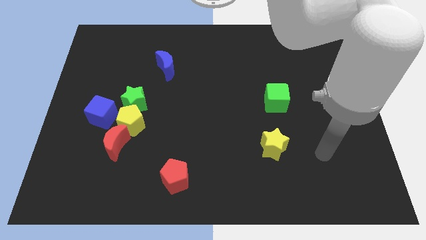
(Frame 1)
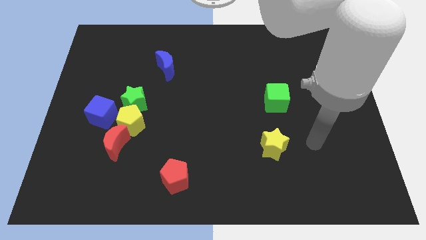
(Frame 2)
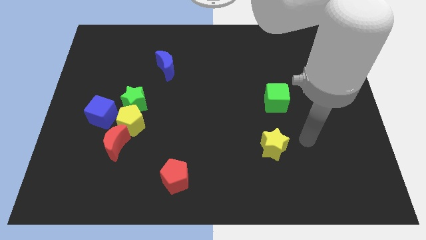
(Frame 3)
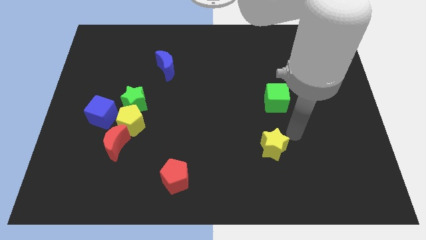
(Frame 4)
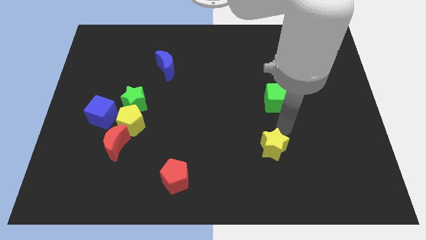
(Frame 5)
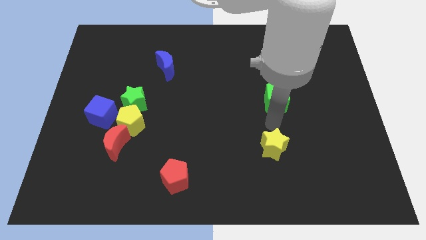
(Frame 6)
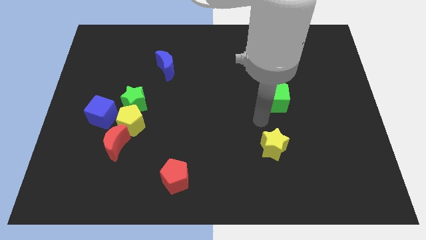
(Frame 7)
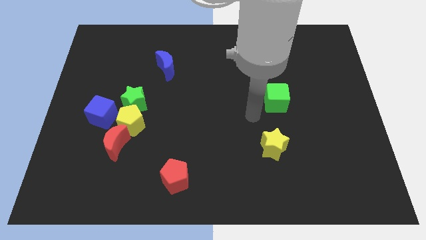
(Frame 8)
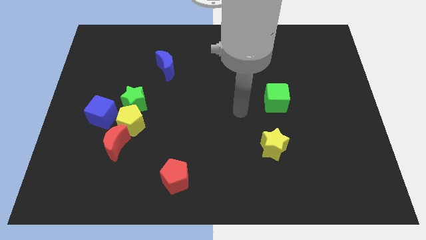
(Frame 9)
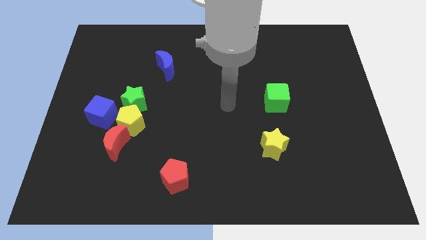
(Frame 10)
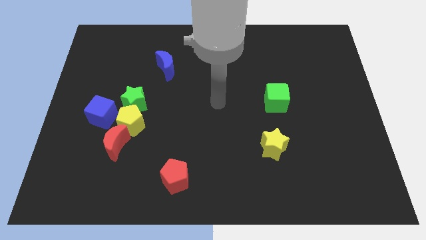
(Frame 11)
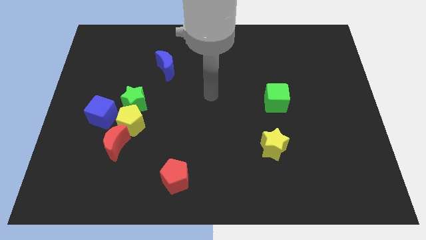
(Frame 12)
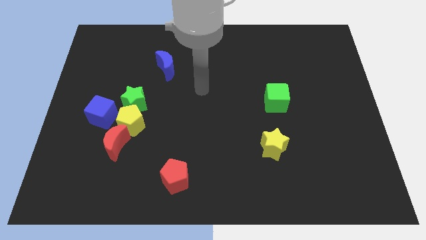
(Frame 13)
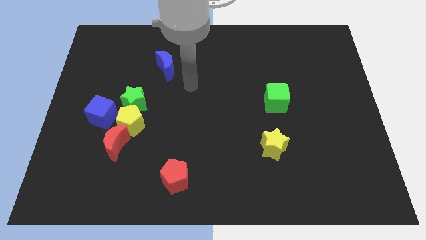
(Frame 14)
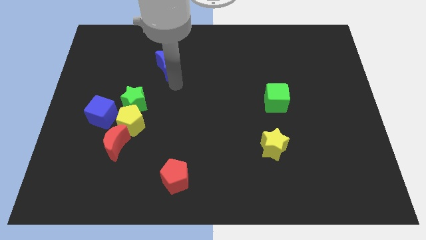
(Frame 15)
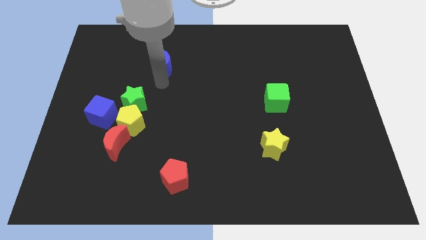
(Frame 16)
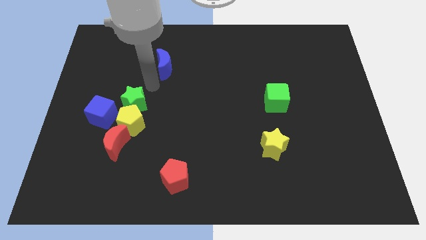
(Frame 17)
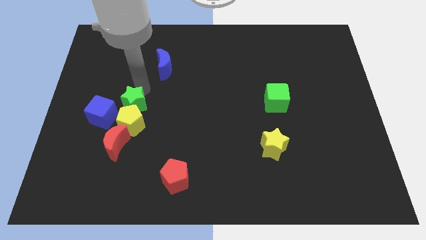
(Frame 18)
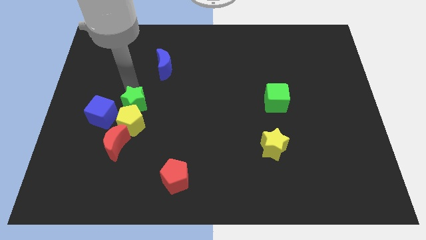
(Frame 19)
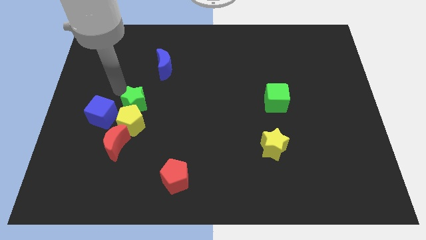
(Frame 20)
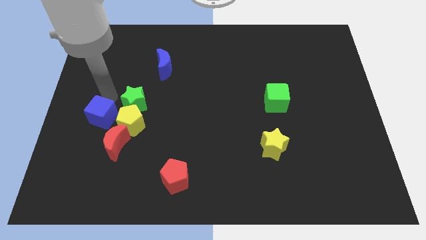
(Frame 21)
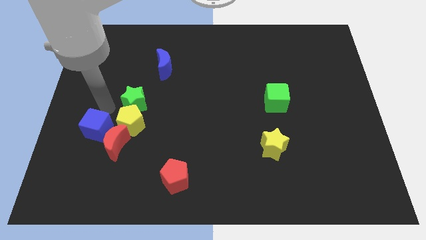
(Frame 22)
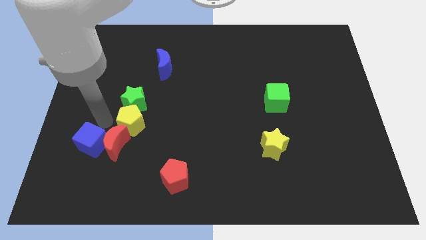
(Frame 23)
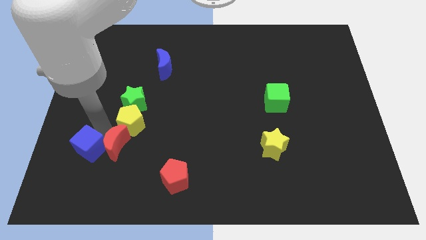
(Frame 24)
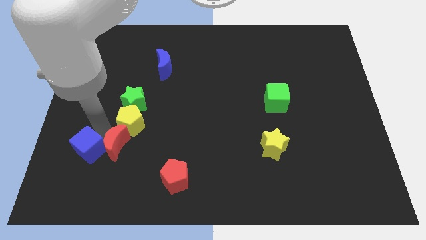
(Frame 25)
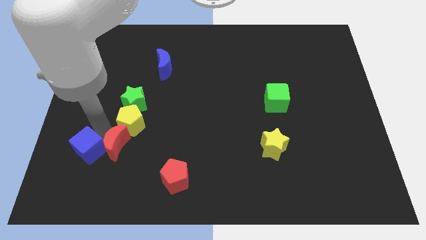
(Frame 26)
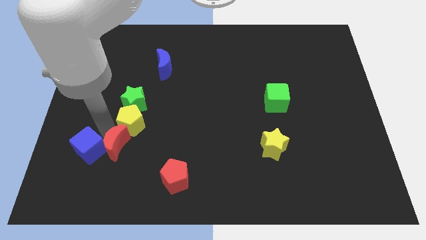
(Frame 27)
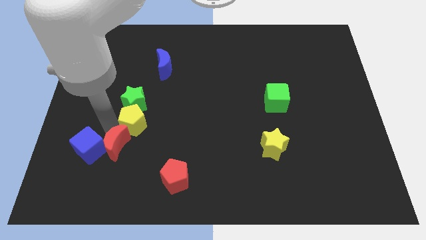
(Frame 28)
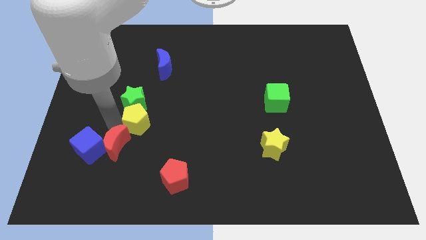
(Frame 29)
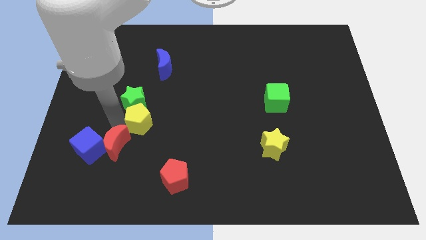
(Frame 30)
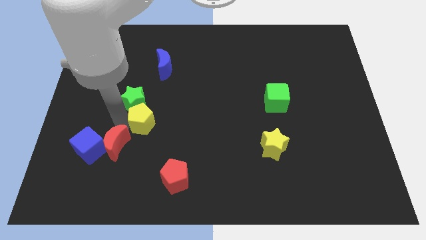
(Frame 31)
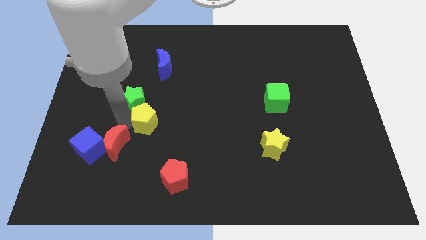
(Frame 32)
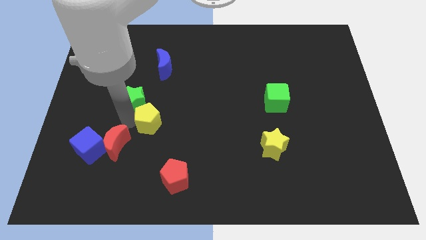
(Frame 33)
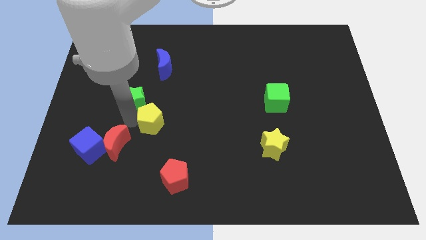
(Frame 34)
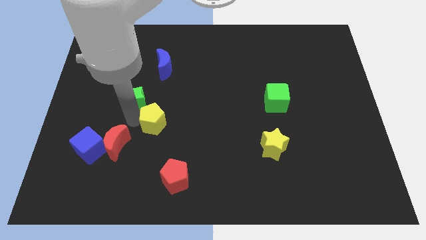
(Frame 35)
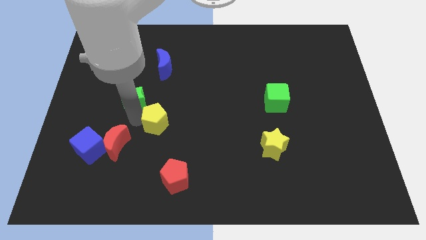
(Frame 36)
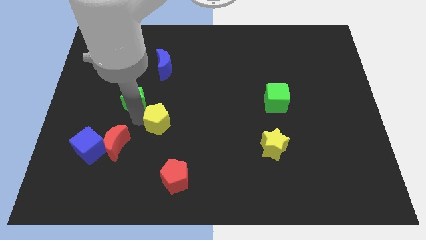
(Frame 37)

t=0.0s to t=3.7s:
move the yellow pentagon away from the green star, red moon, and blue cube

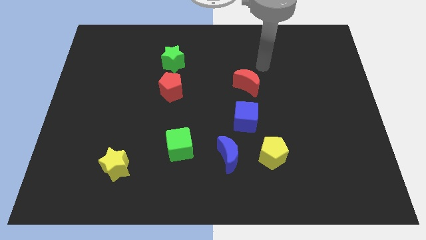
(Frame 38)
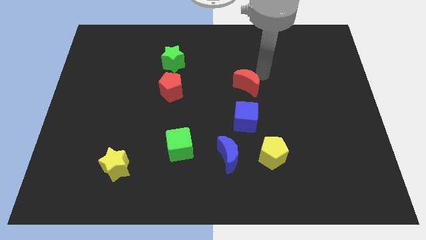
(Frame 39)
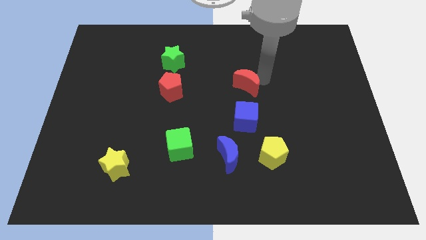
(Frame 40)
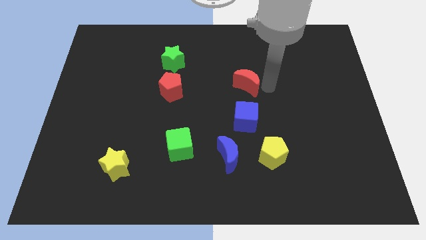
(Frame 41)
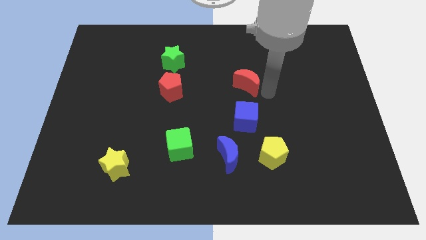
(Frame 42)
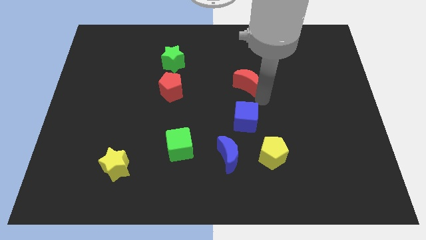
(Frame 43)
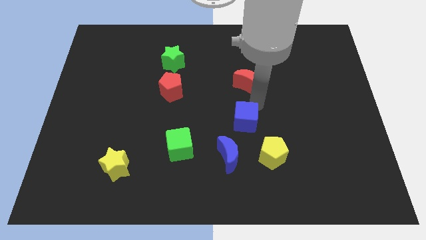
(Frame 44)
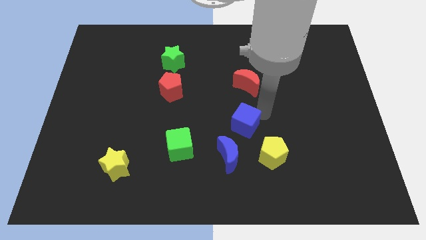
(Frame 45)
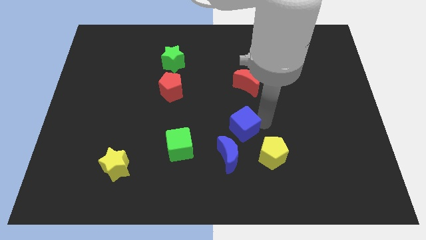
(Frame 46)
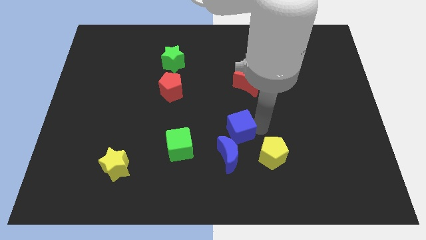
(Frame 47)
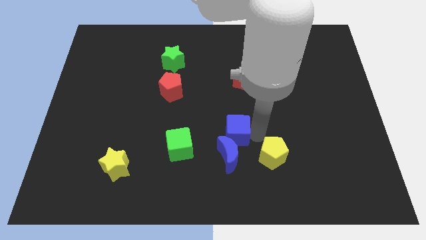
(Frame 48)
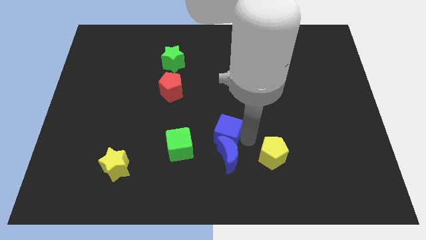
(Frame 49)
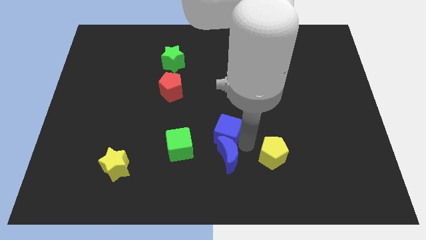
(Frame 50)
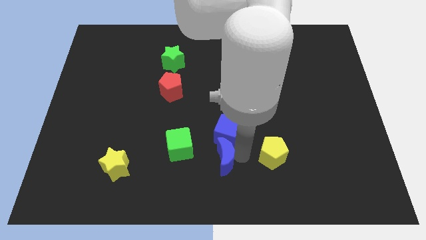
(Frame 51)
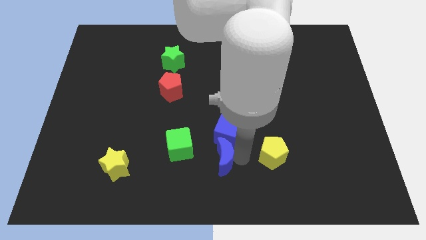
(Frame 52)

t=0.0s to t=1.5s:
move the yellow pentagon away from the blue moon

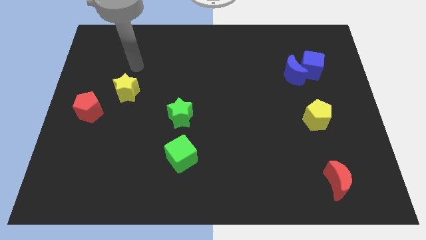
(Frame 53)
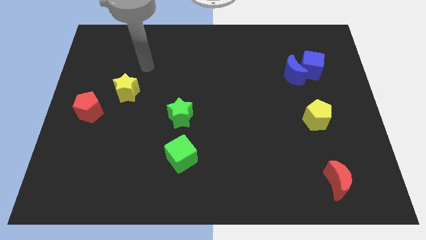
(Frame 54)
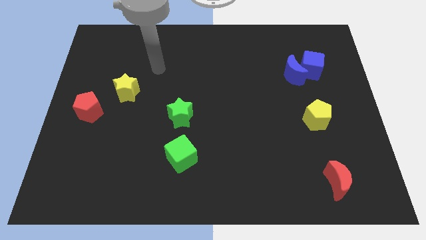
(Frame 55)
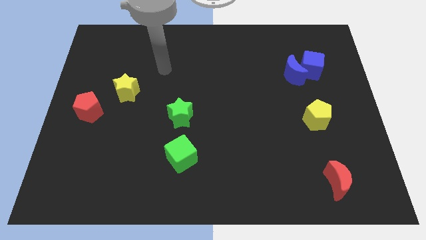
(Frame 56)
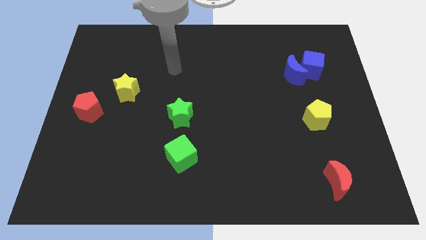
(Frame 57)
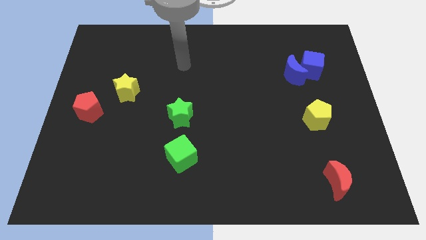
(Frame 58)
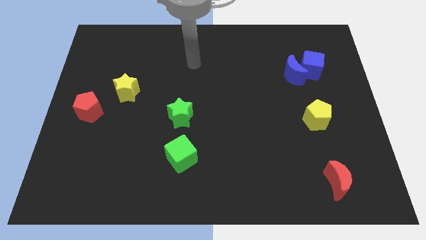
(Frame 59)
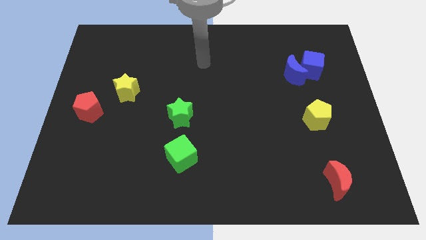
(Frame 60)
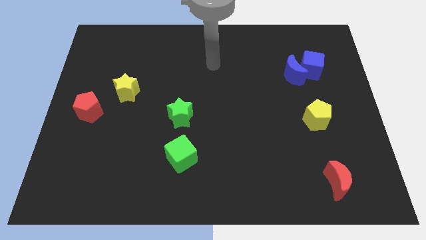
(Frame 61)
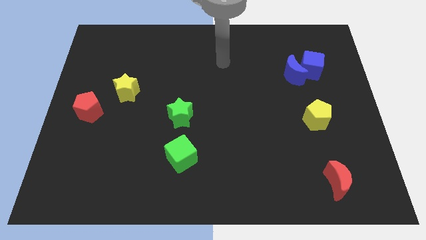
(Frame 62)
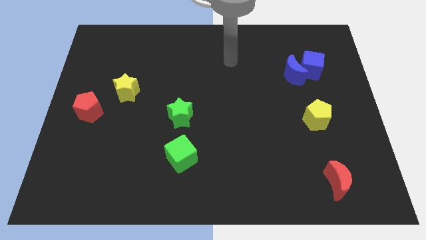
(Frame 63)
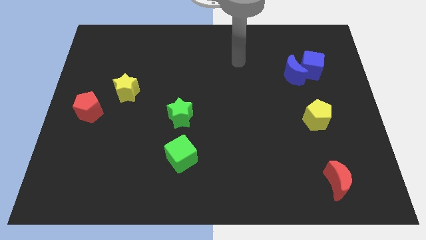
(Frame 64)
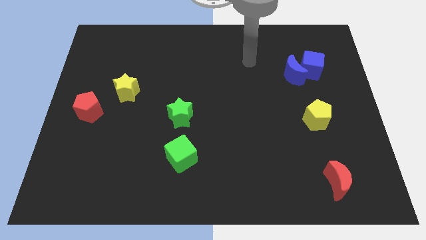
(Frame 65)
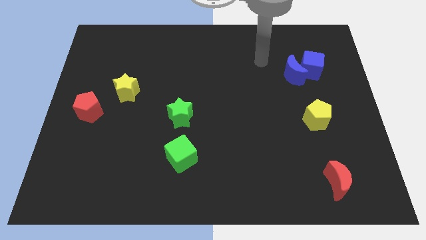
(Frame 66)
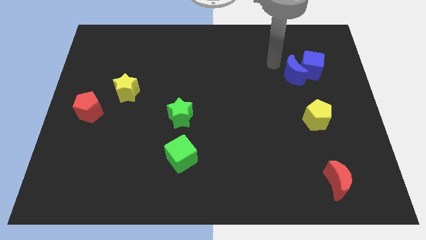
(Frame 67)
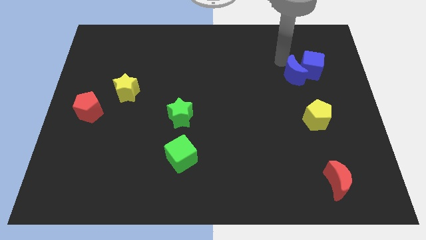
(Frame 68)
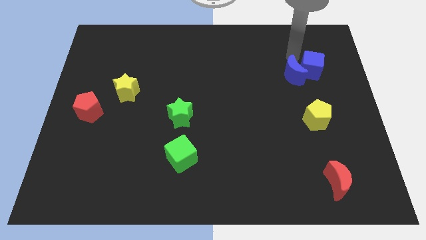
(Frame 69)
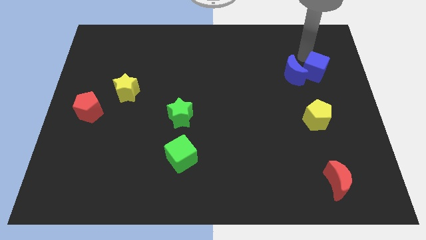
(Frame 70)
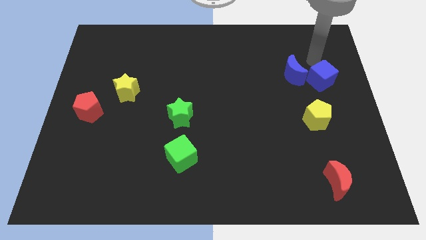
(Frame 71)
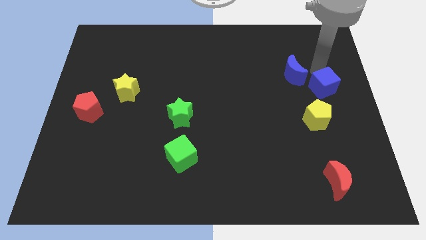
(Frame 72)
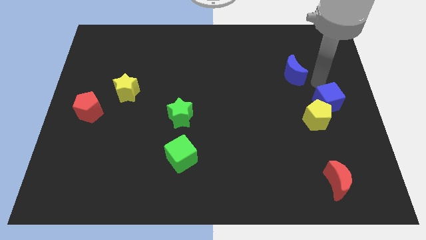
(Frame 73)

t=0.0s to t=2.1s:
move the blue moon away from the blue cube

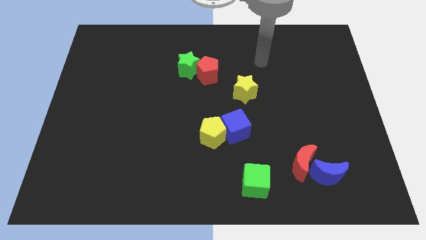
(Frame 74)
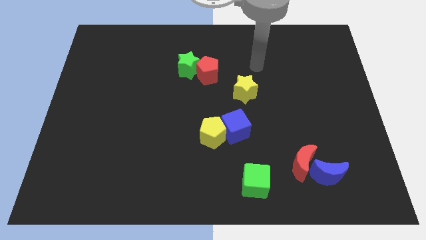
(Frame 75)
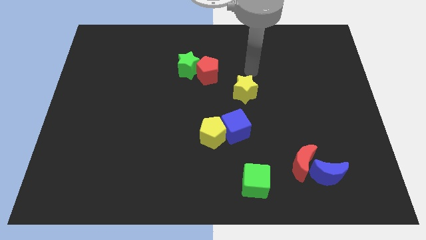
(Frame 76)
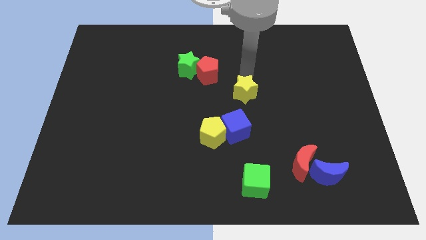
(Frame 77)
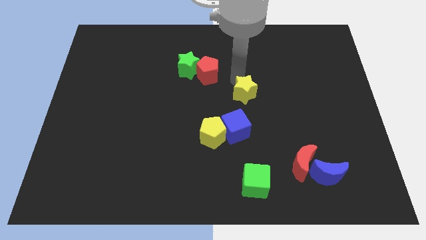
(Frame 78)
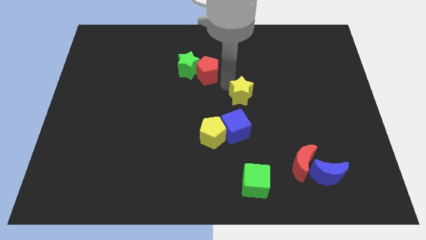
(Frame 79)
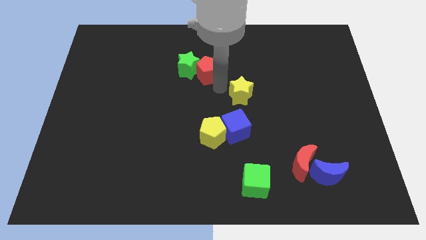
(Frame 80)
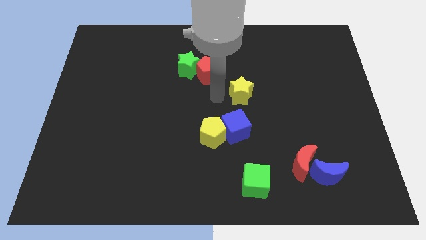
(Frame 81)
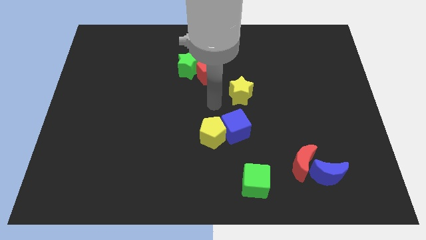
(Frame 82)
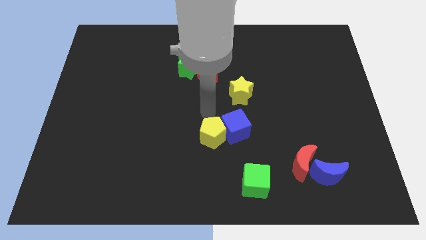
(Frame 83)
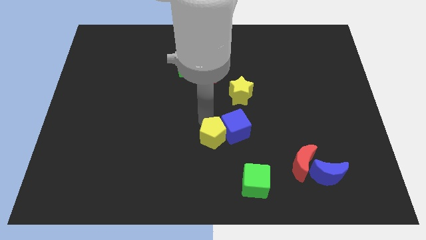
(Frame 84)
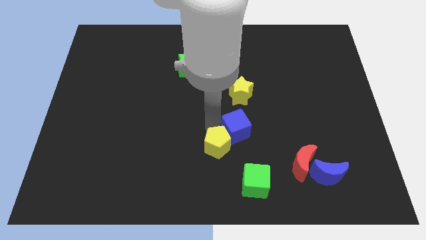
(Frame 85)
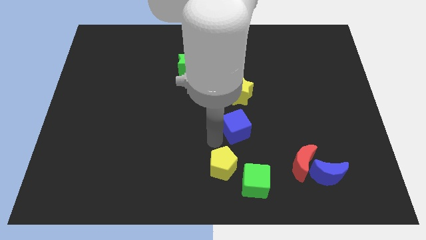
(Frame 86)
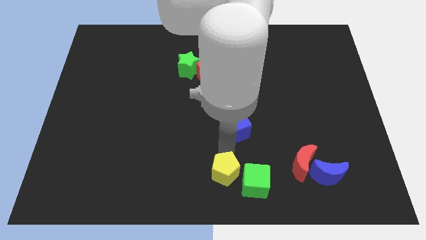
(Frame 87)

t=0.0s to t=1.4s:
pull the blue cube apart from the yellow pentagon

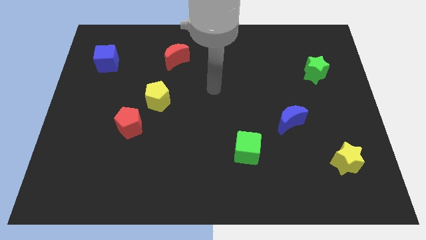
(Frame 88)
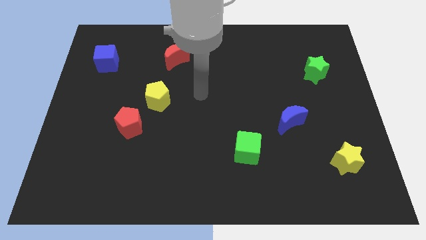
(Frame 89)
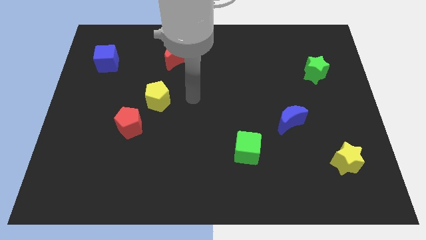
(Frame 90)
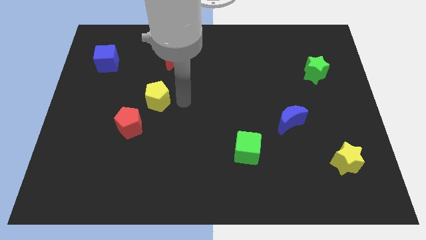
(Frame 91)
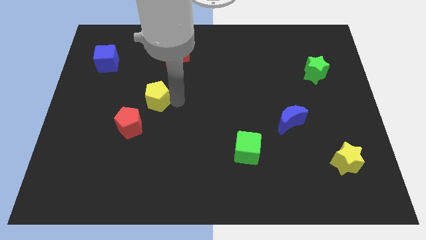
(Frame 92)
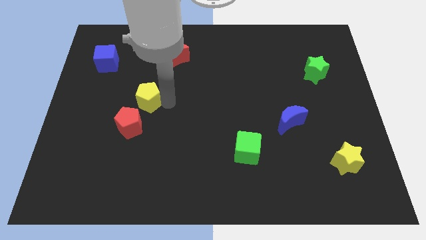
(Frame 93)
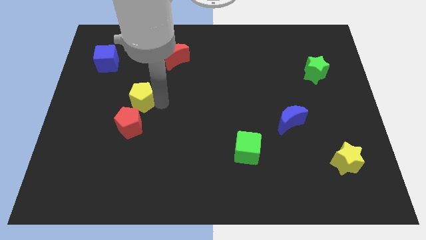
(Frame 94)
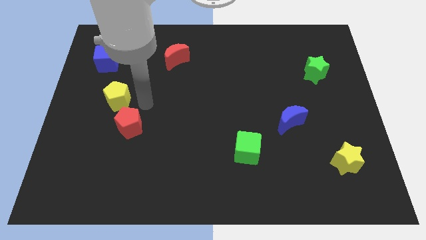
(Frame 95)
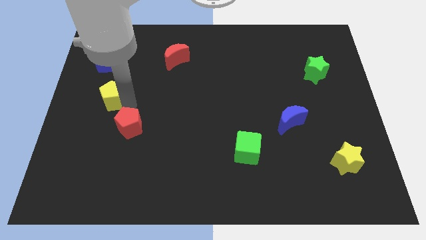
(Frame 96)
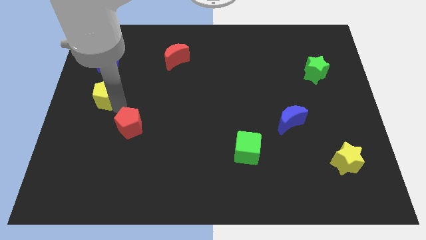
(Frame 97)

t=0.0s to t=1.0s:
separate the red pentagon from the yellow pentagon
